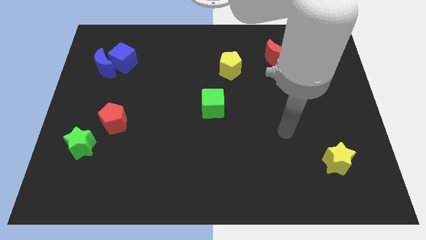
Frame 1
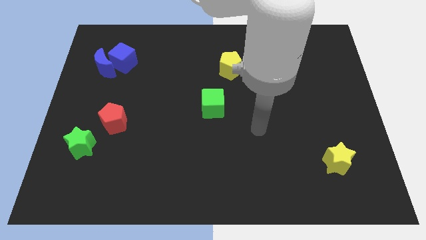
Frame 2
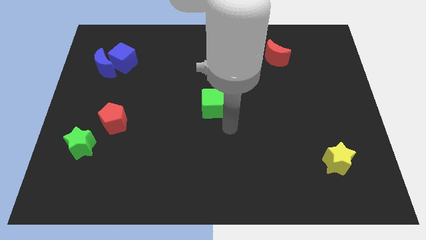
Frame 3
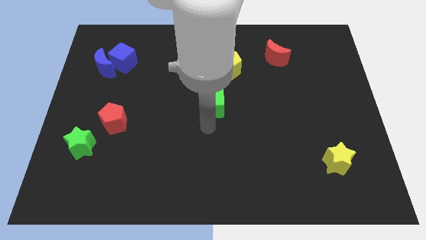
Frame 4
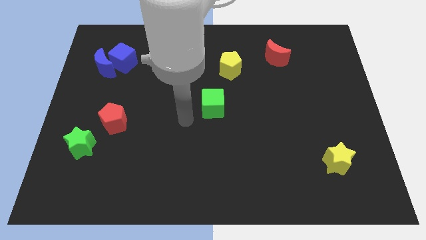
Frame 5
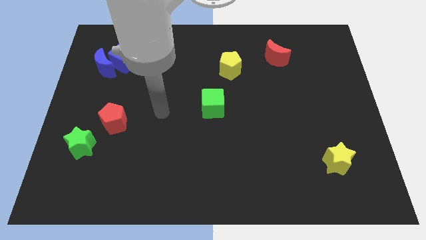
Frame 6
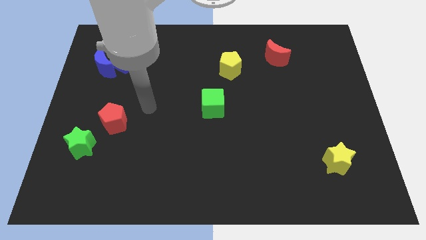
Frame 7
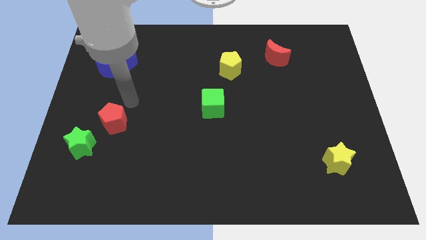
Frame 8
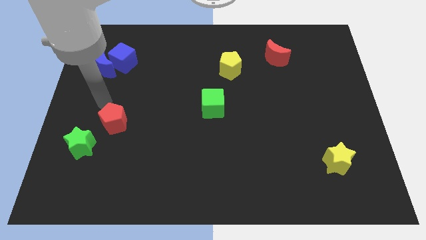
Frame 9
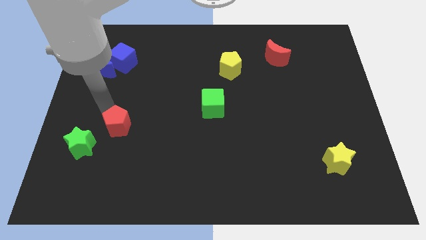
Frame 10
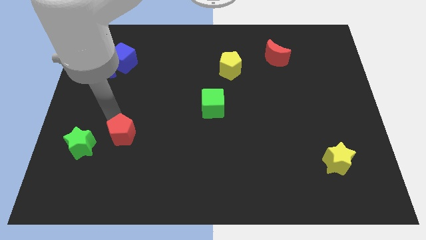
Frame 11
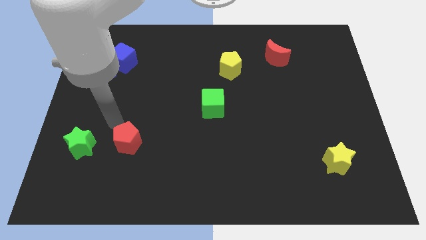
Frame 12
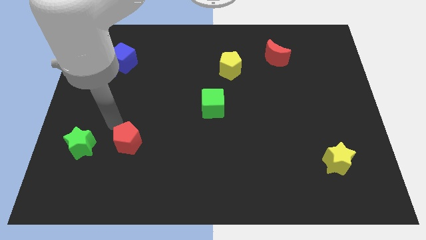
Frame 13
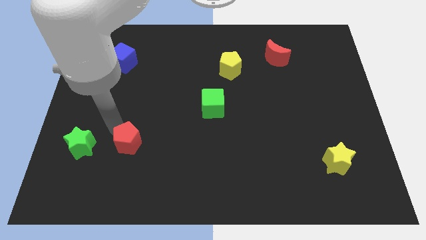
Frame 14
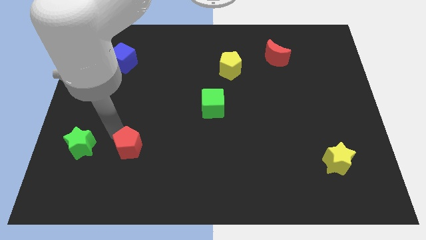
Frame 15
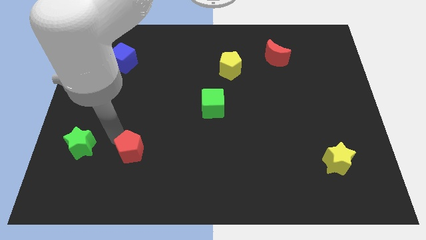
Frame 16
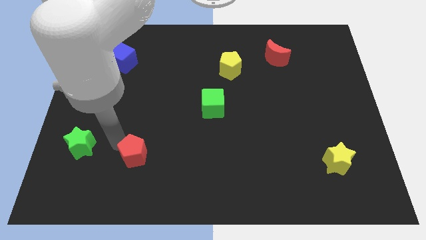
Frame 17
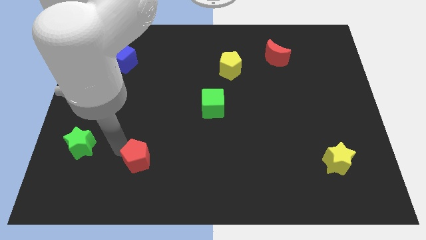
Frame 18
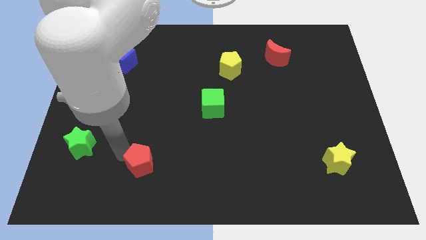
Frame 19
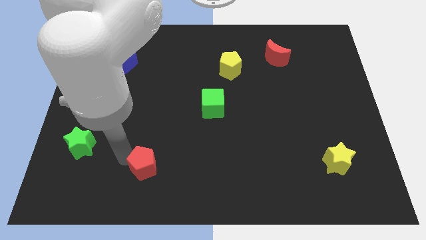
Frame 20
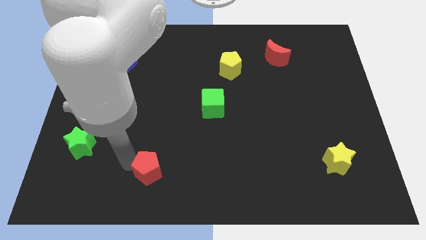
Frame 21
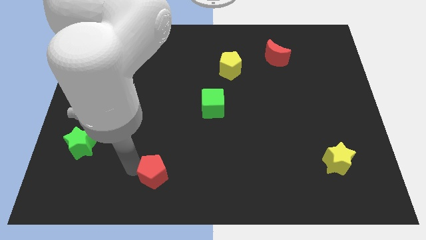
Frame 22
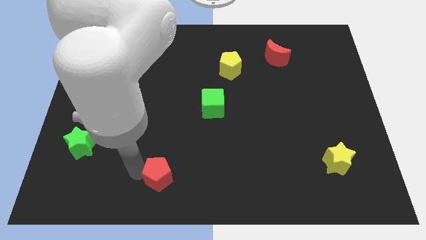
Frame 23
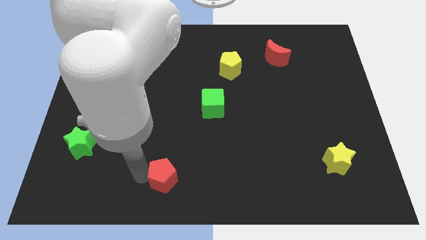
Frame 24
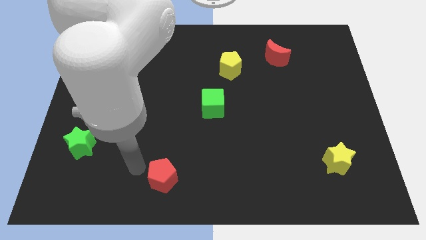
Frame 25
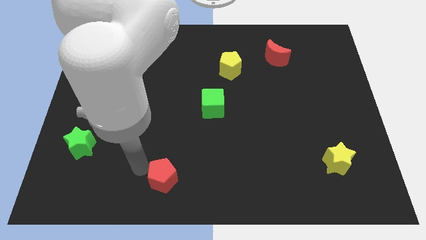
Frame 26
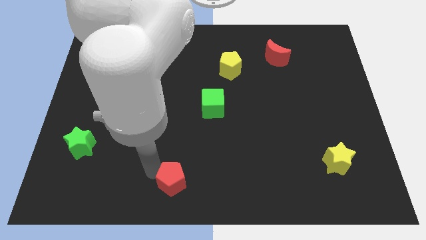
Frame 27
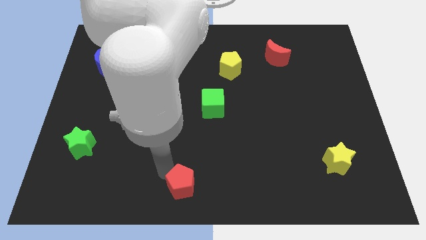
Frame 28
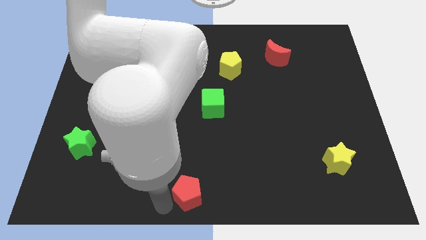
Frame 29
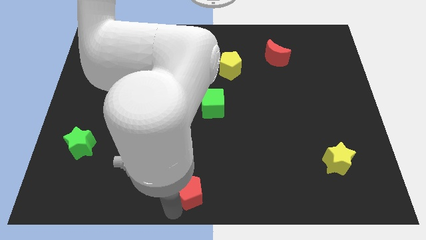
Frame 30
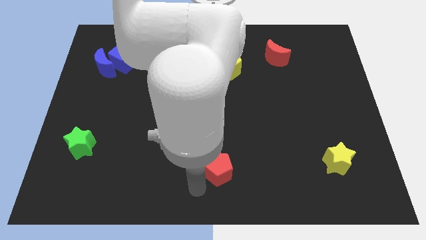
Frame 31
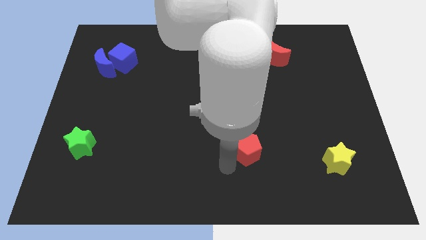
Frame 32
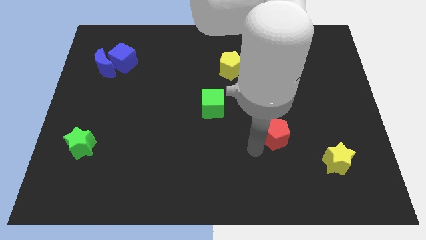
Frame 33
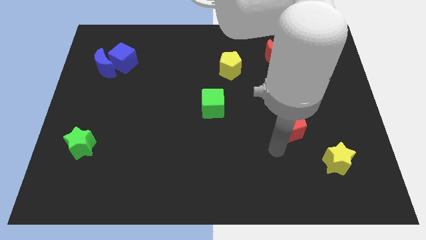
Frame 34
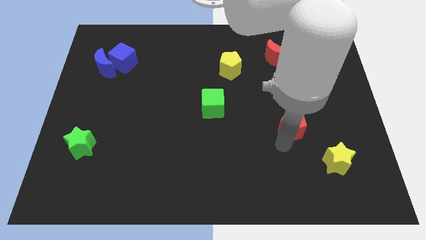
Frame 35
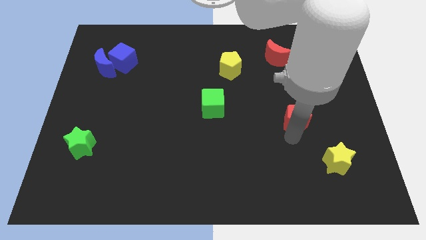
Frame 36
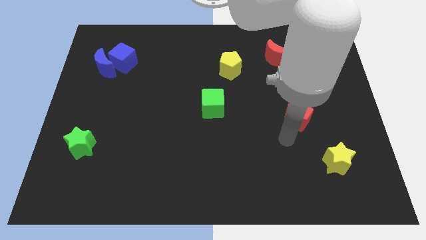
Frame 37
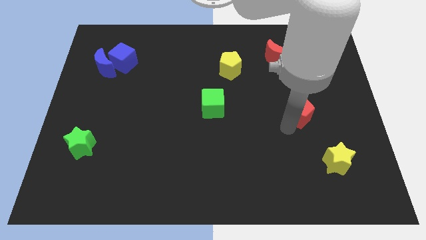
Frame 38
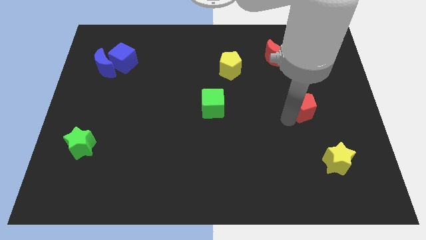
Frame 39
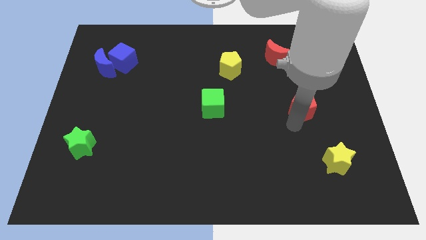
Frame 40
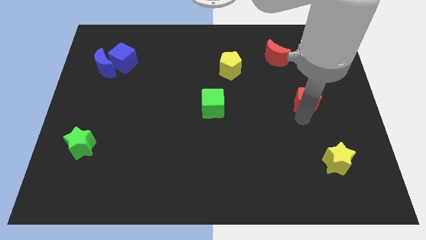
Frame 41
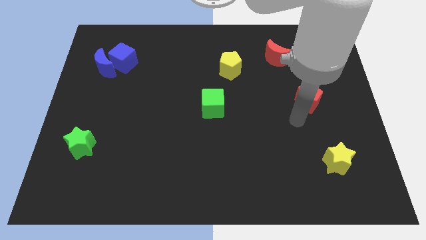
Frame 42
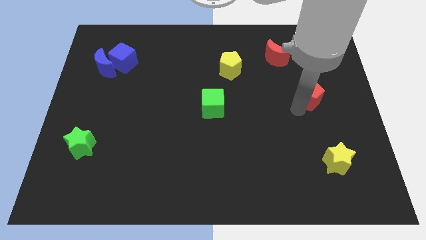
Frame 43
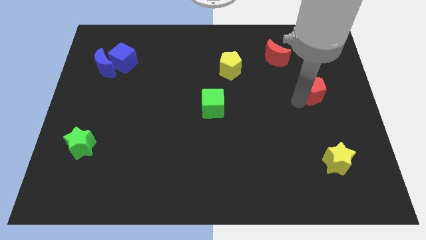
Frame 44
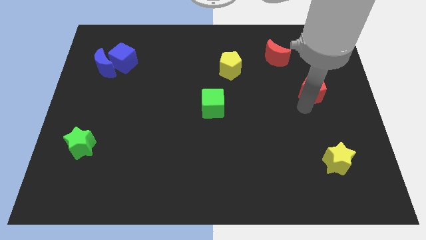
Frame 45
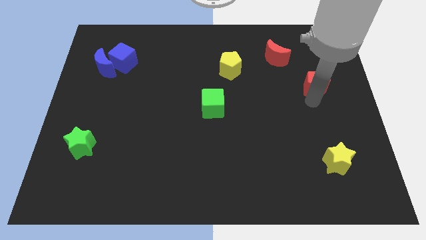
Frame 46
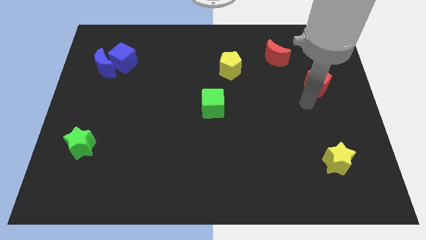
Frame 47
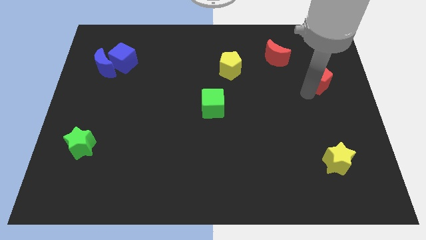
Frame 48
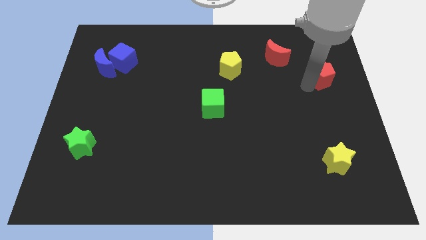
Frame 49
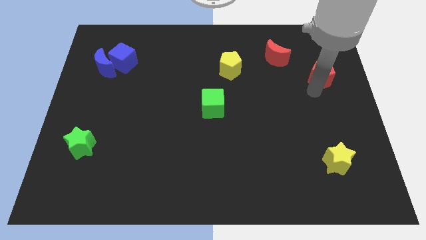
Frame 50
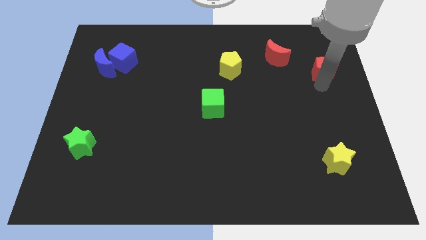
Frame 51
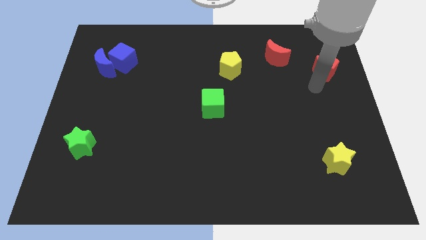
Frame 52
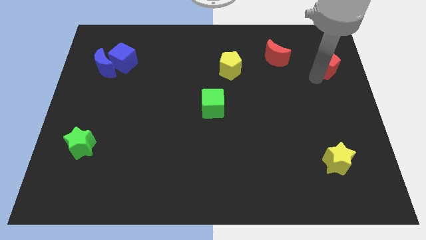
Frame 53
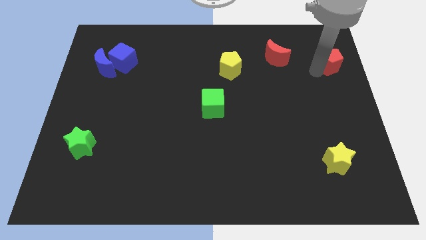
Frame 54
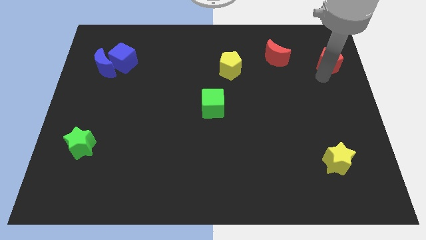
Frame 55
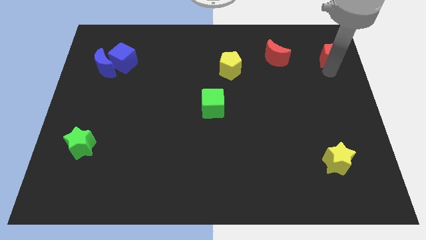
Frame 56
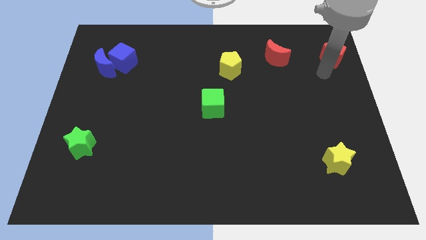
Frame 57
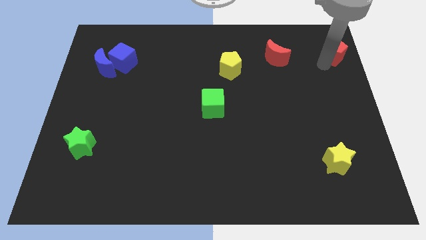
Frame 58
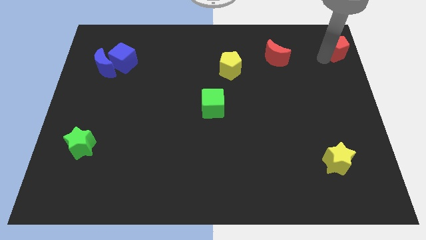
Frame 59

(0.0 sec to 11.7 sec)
move the red pentagon to the top right of the board

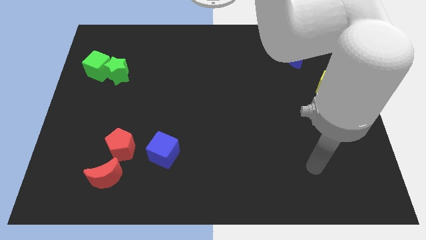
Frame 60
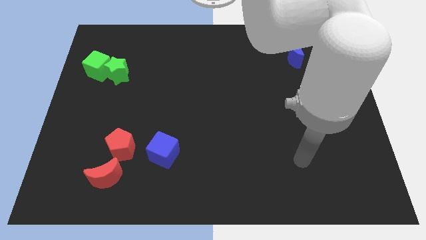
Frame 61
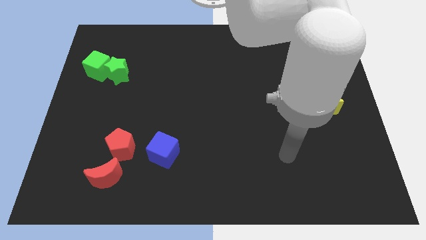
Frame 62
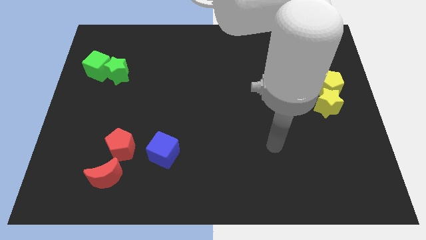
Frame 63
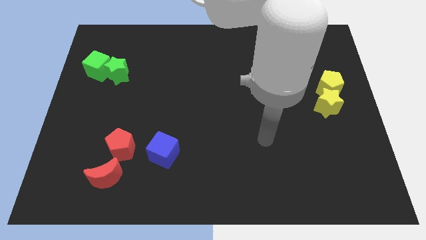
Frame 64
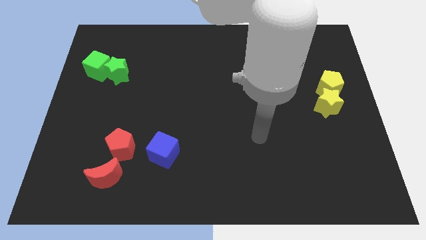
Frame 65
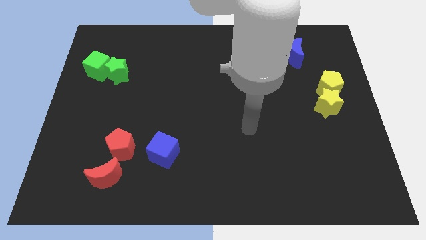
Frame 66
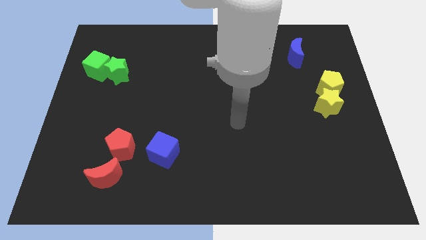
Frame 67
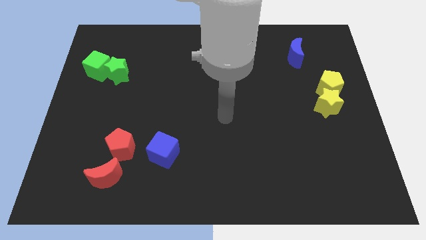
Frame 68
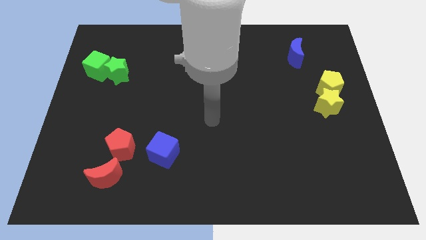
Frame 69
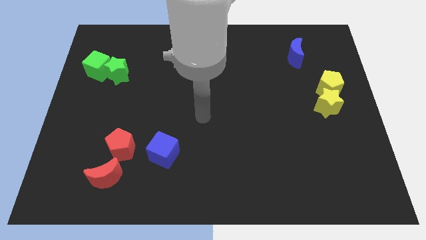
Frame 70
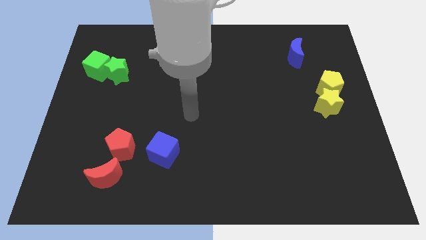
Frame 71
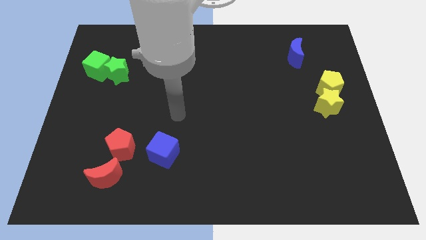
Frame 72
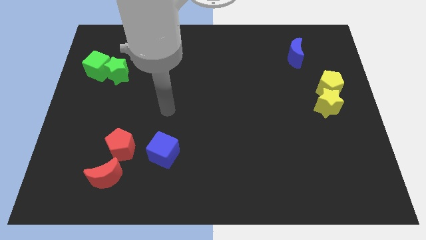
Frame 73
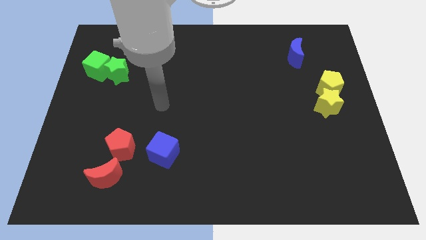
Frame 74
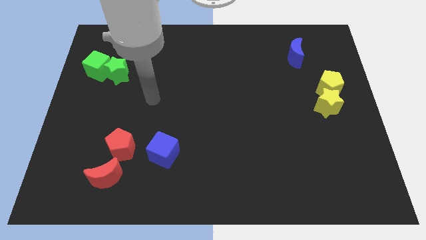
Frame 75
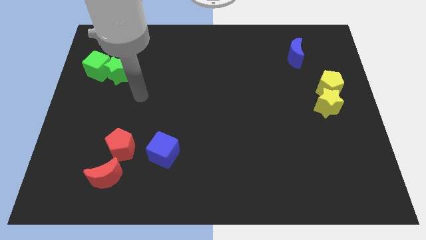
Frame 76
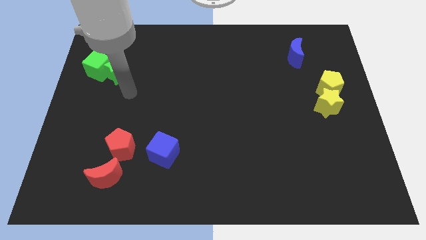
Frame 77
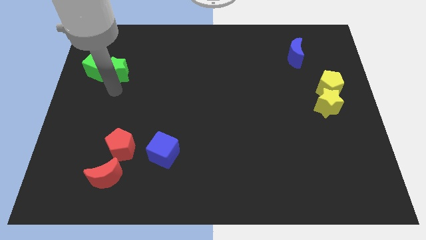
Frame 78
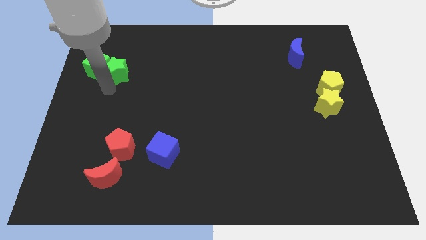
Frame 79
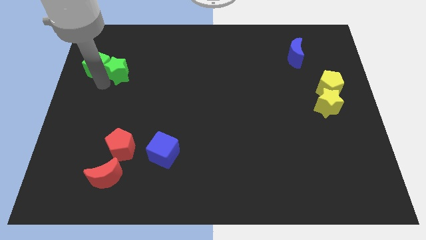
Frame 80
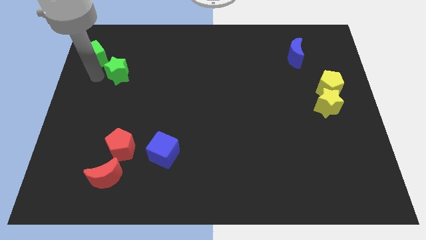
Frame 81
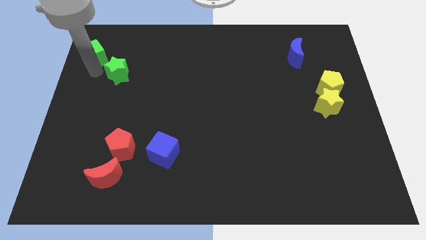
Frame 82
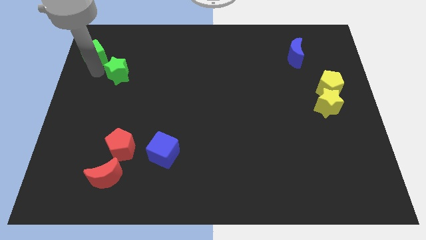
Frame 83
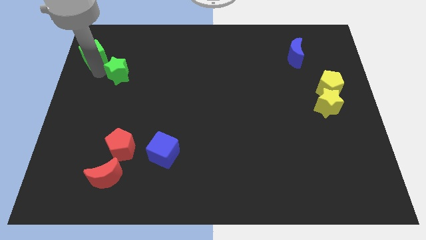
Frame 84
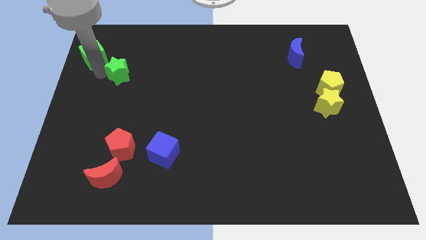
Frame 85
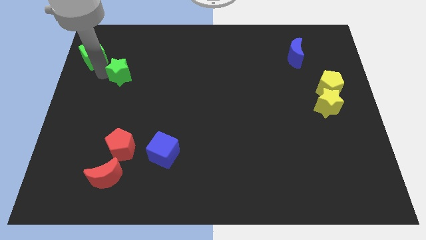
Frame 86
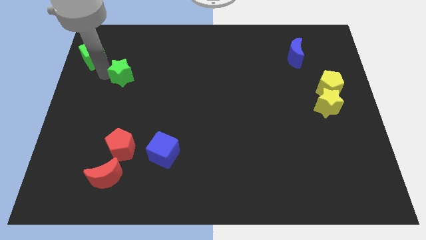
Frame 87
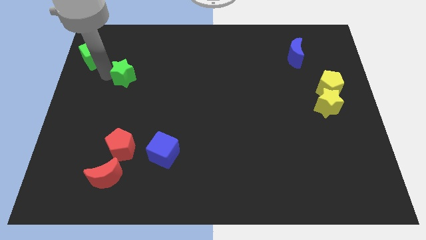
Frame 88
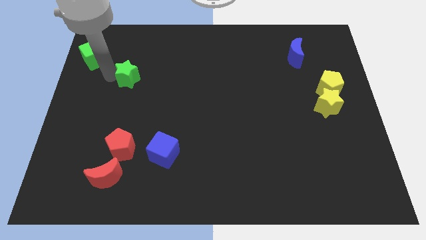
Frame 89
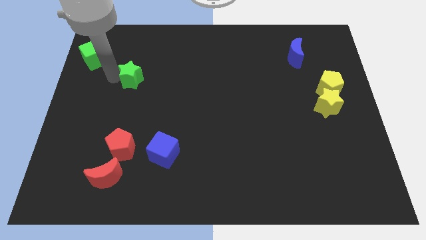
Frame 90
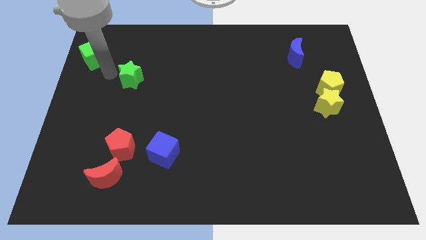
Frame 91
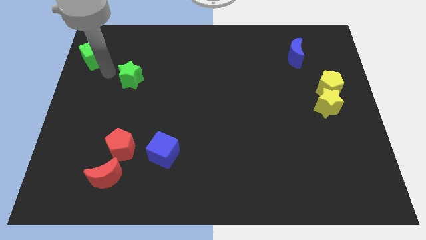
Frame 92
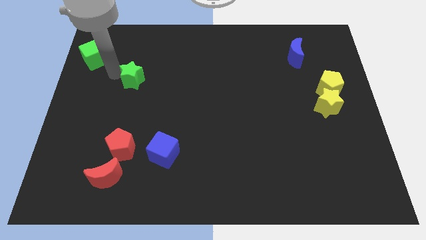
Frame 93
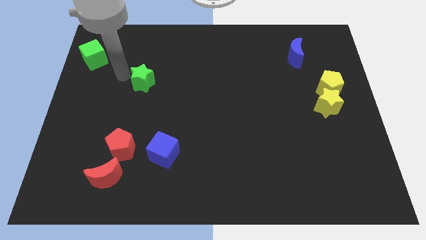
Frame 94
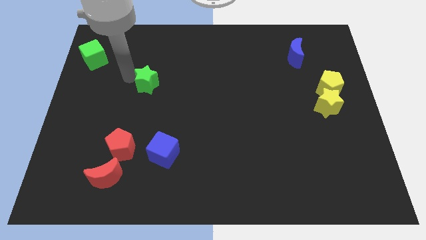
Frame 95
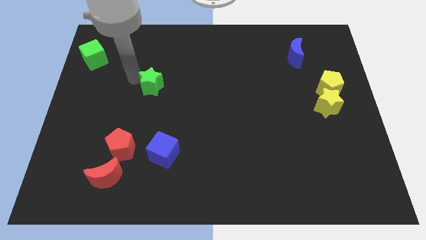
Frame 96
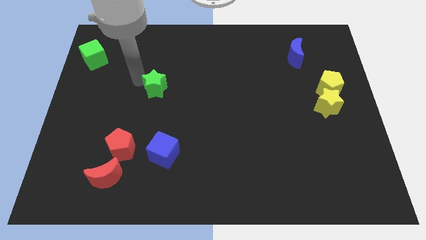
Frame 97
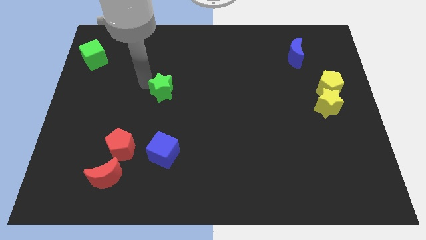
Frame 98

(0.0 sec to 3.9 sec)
push the green star to the middle of the board
